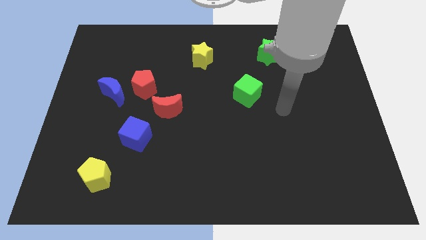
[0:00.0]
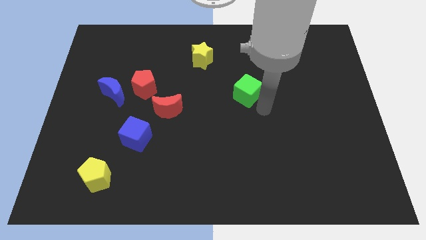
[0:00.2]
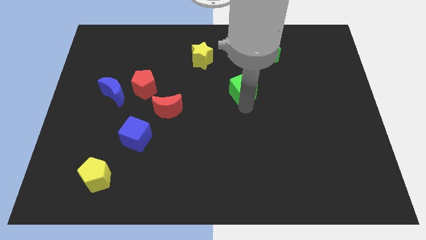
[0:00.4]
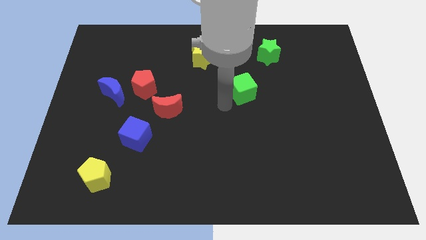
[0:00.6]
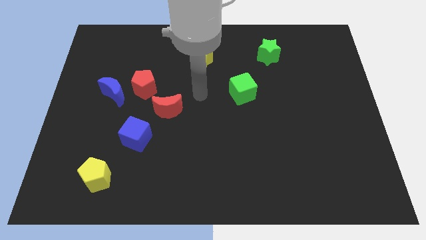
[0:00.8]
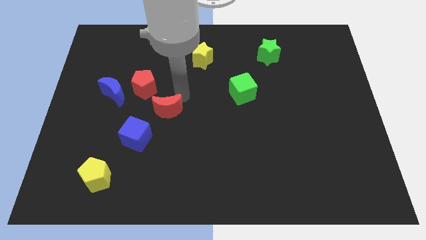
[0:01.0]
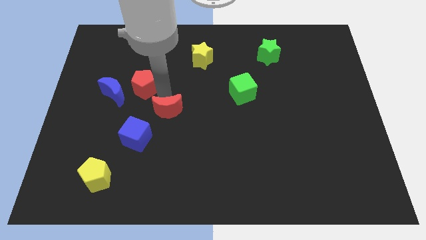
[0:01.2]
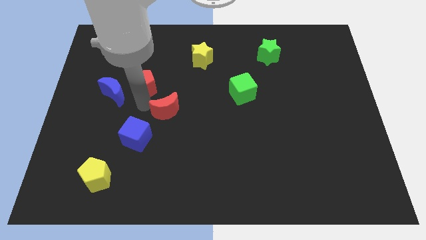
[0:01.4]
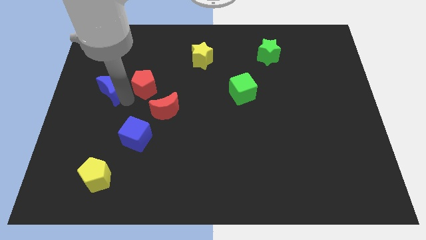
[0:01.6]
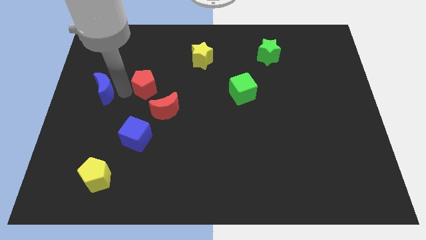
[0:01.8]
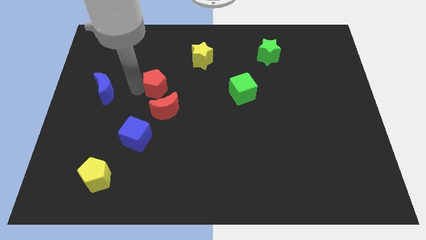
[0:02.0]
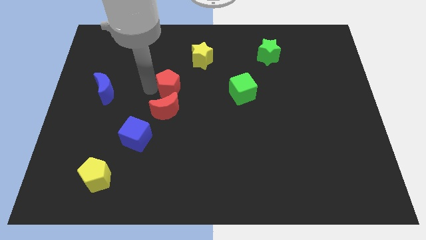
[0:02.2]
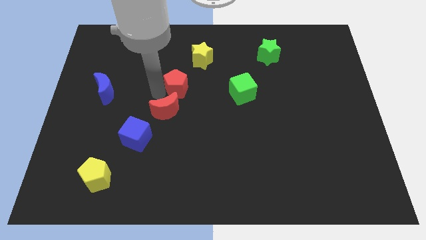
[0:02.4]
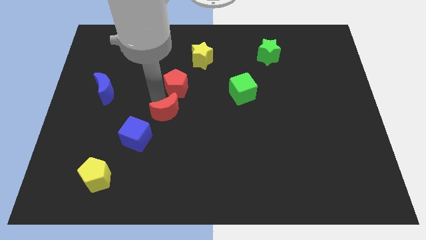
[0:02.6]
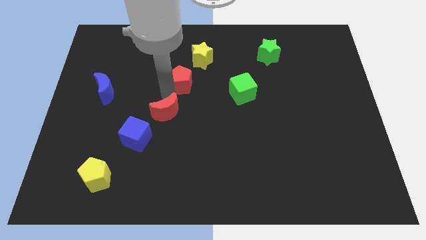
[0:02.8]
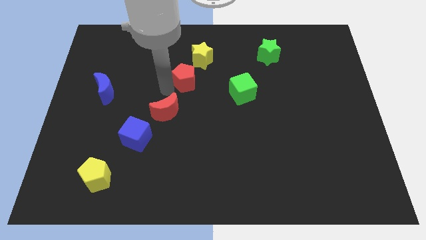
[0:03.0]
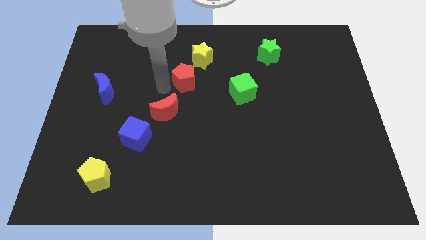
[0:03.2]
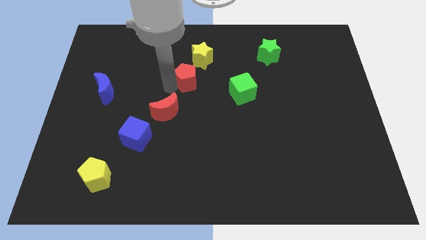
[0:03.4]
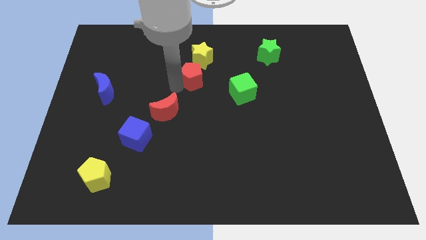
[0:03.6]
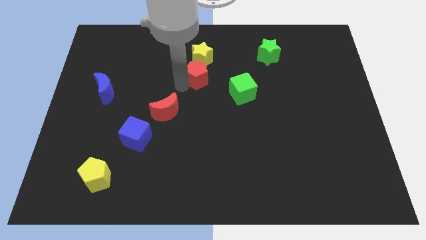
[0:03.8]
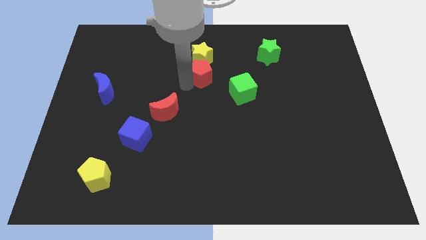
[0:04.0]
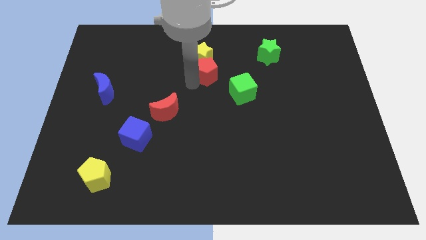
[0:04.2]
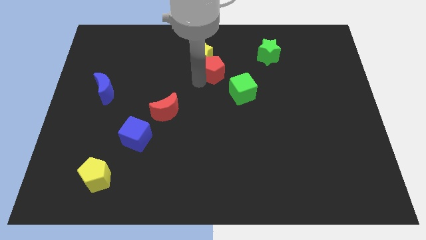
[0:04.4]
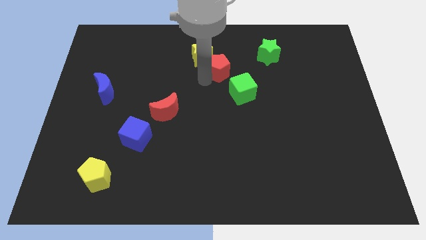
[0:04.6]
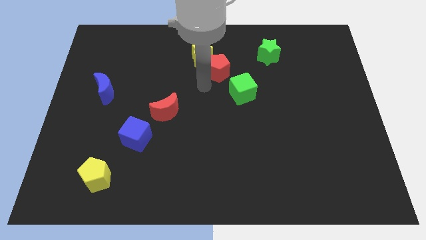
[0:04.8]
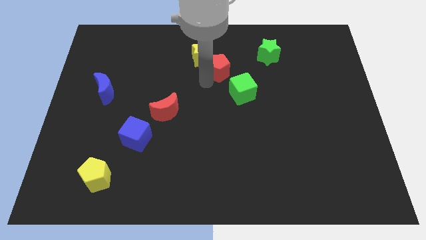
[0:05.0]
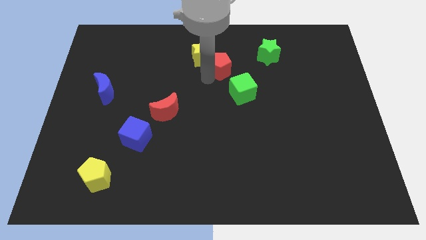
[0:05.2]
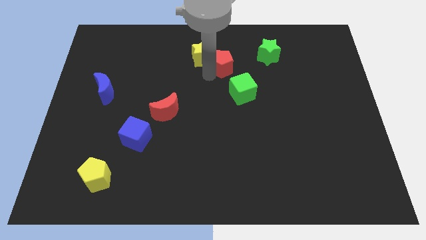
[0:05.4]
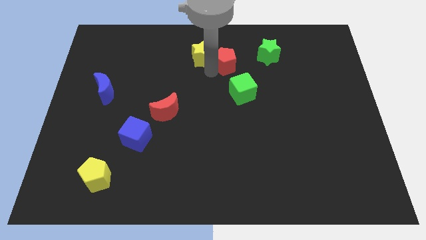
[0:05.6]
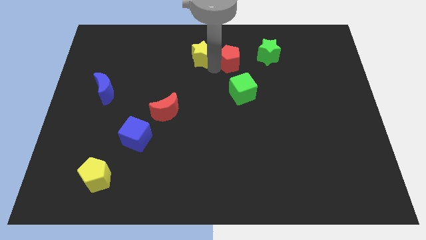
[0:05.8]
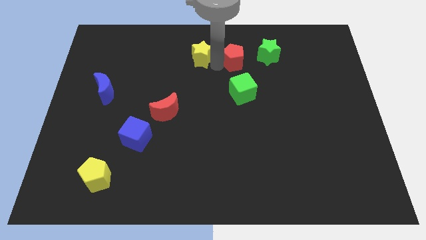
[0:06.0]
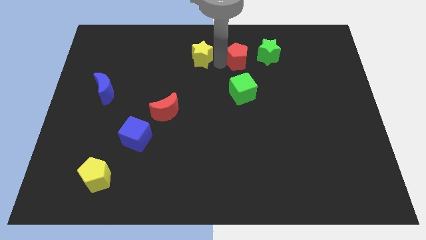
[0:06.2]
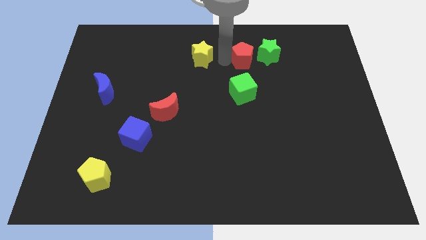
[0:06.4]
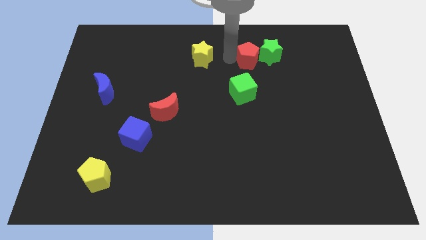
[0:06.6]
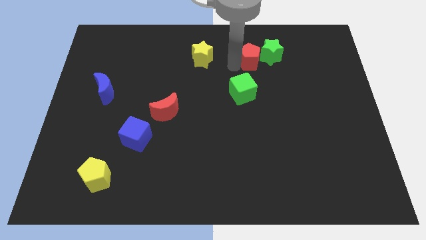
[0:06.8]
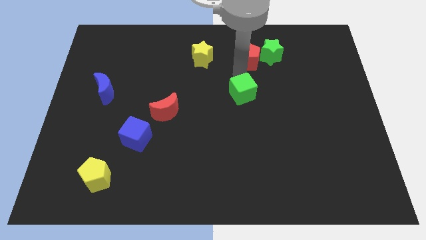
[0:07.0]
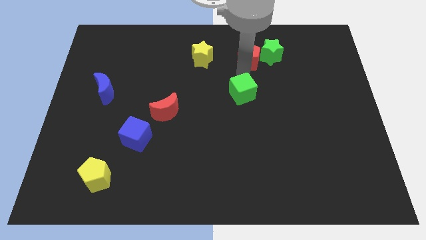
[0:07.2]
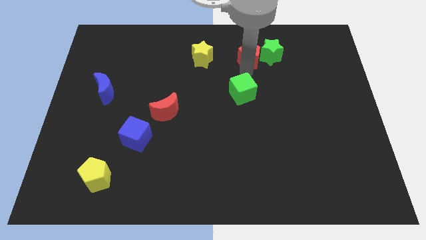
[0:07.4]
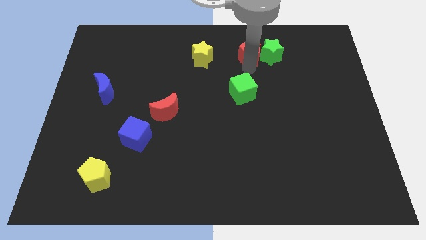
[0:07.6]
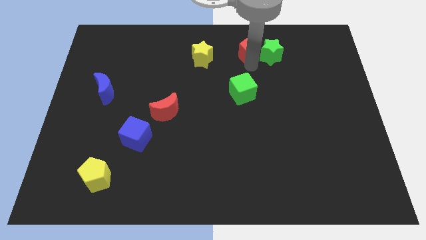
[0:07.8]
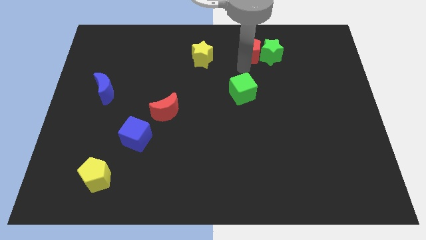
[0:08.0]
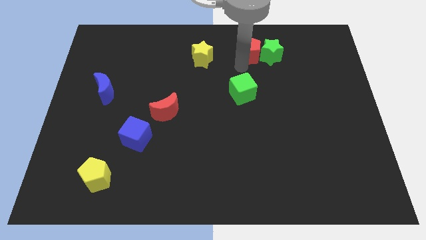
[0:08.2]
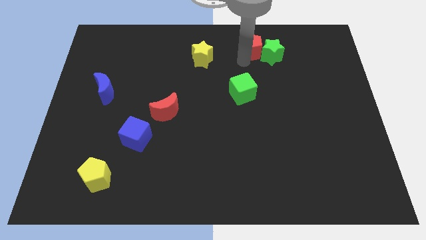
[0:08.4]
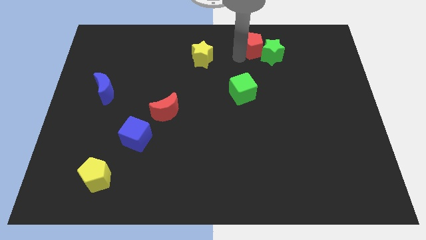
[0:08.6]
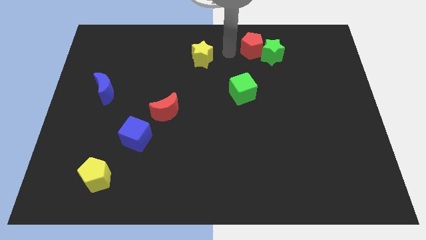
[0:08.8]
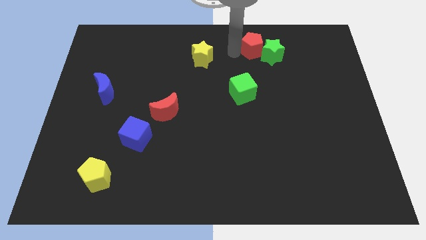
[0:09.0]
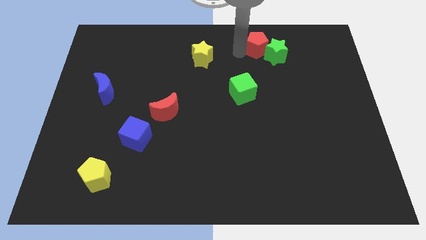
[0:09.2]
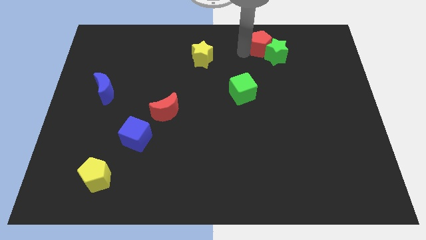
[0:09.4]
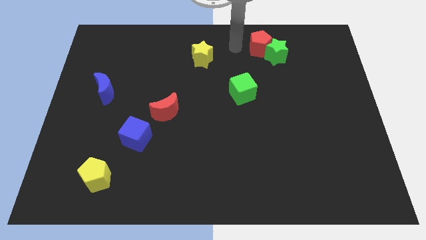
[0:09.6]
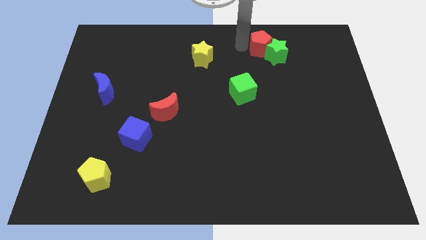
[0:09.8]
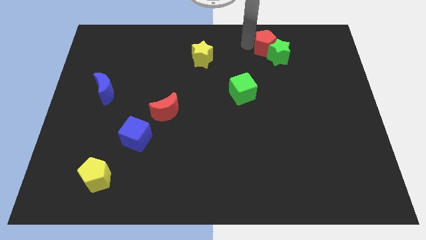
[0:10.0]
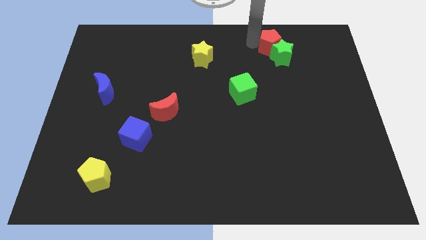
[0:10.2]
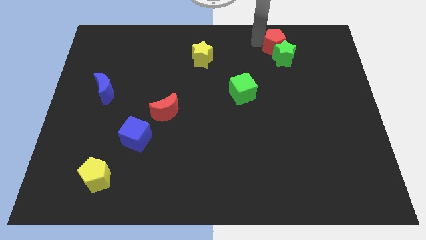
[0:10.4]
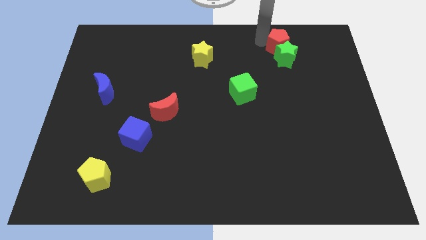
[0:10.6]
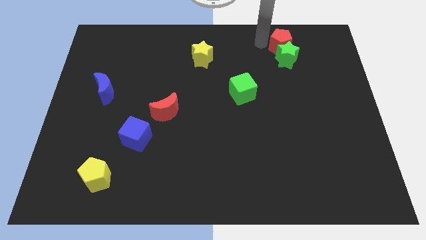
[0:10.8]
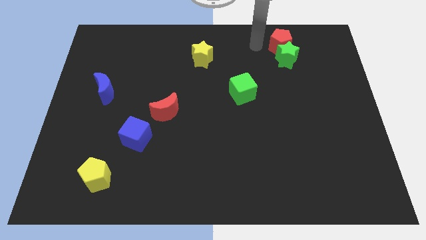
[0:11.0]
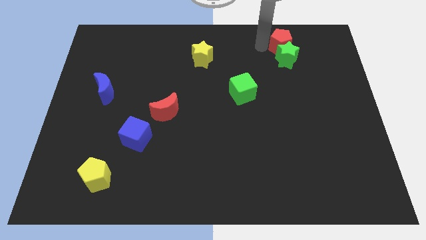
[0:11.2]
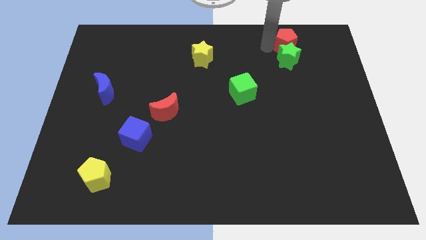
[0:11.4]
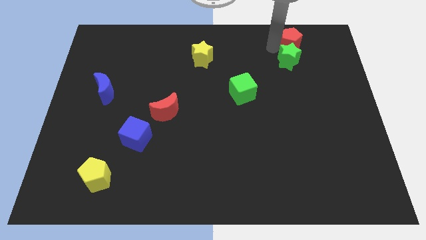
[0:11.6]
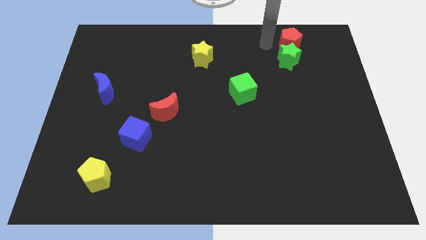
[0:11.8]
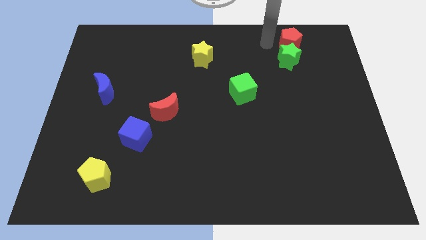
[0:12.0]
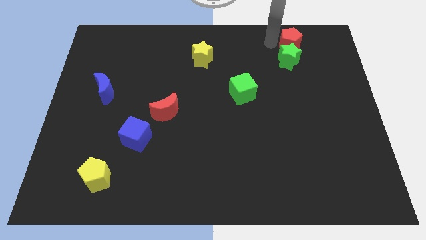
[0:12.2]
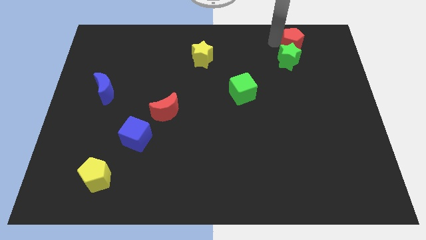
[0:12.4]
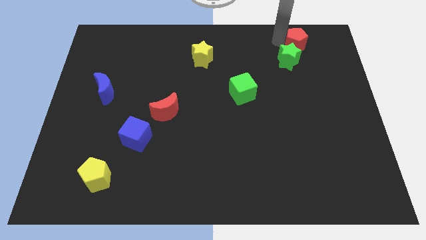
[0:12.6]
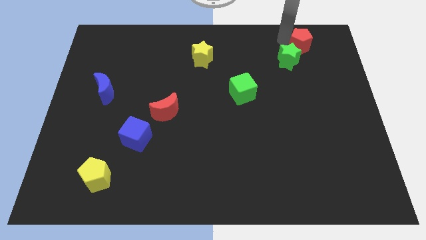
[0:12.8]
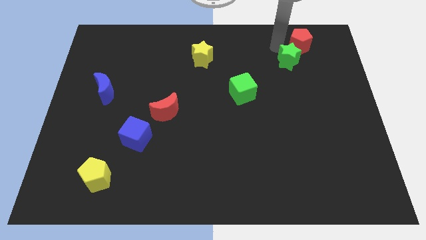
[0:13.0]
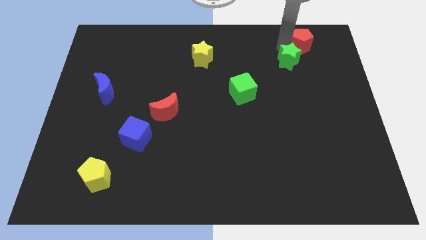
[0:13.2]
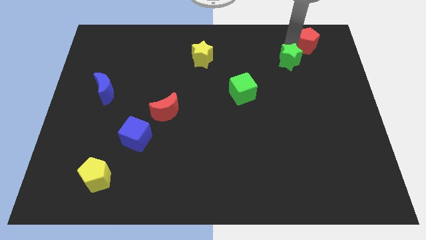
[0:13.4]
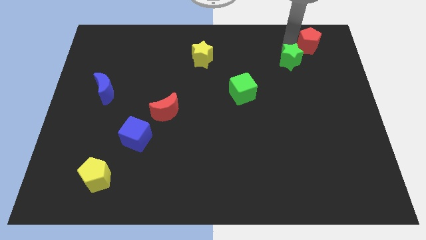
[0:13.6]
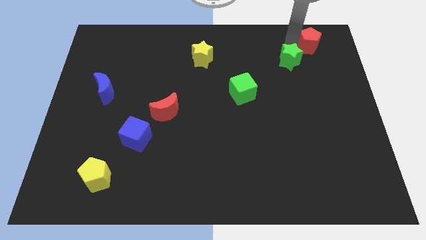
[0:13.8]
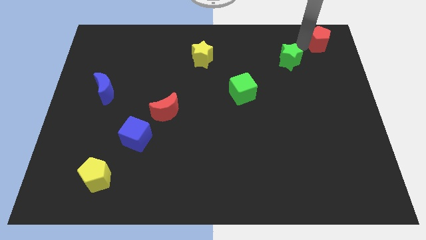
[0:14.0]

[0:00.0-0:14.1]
push the red pentagon to the top right of the board
